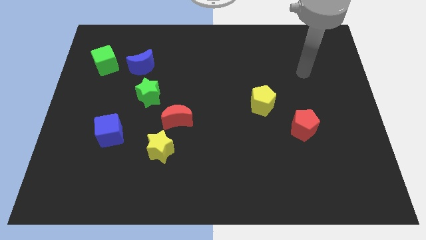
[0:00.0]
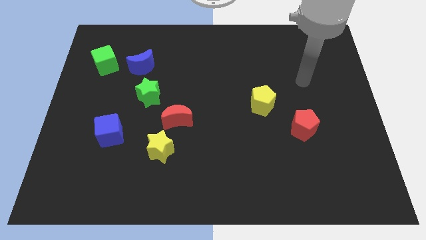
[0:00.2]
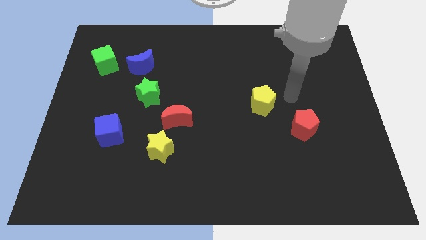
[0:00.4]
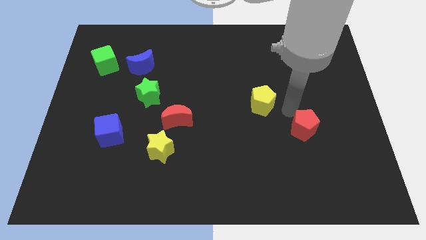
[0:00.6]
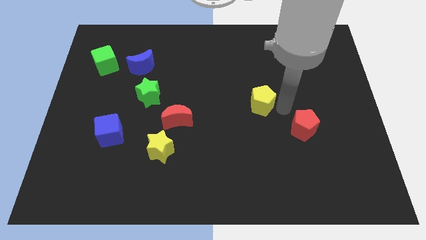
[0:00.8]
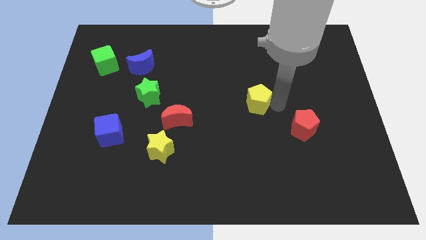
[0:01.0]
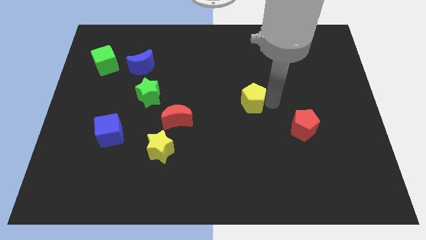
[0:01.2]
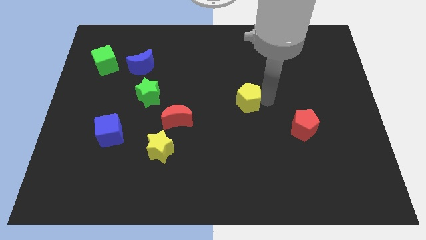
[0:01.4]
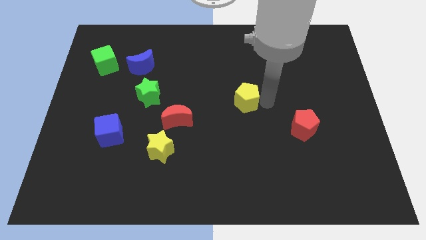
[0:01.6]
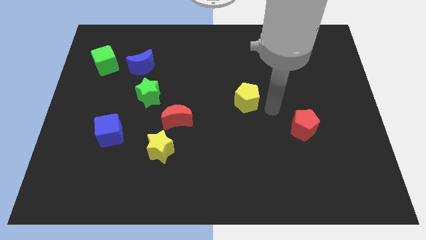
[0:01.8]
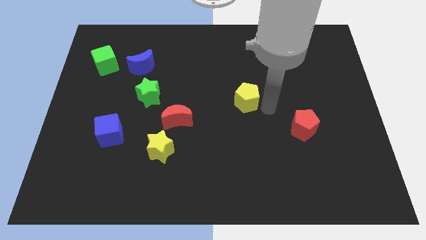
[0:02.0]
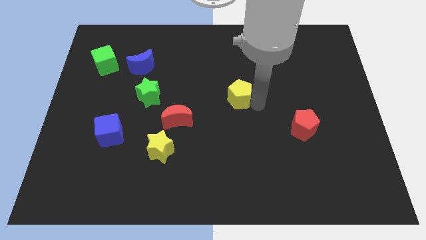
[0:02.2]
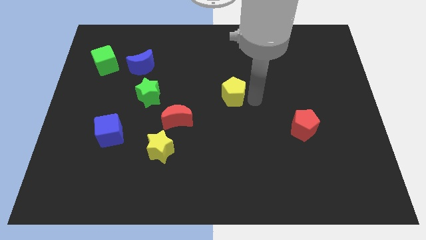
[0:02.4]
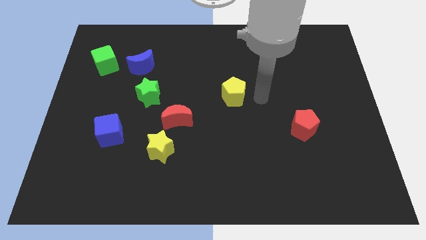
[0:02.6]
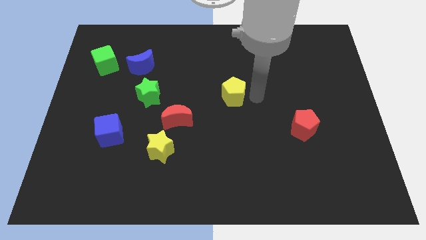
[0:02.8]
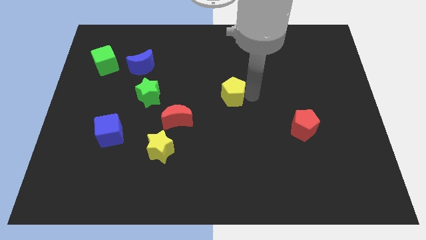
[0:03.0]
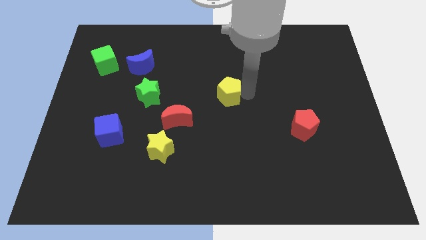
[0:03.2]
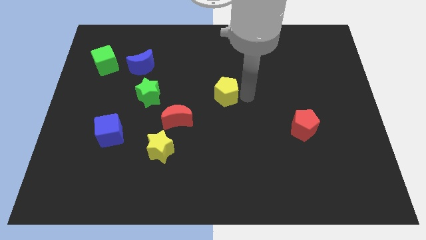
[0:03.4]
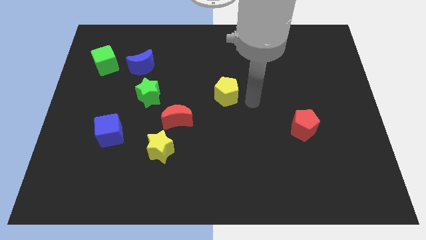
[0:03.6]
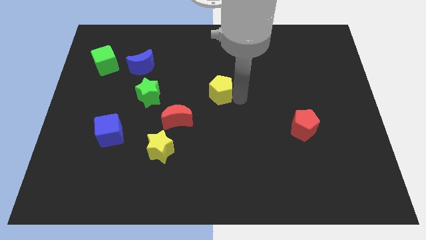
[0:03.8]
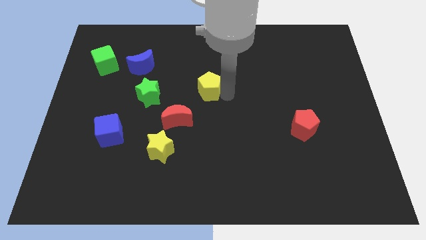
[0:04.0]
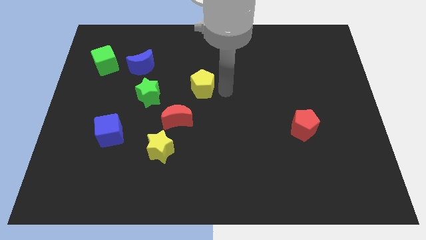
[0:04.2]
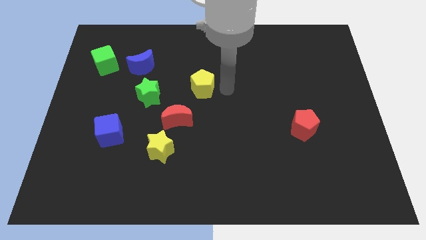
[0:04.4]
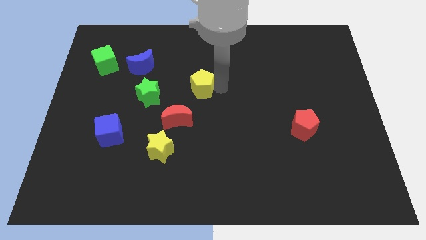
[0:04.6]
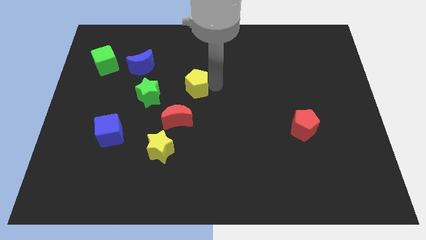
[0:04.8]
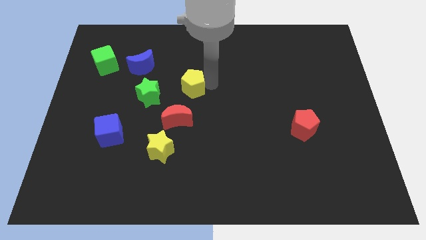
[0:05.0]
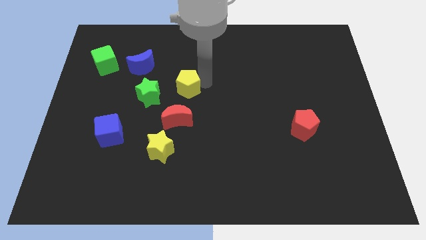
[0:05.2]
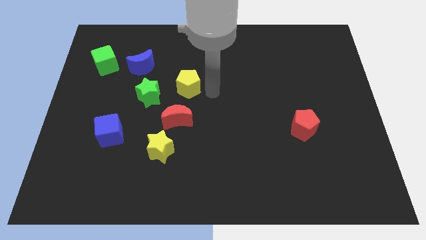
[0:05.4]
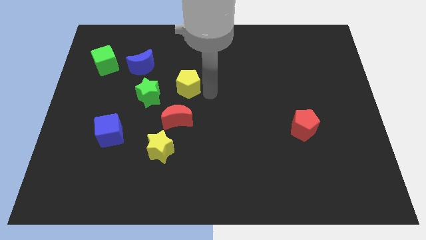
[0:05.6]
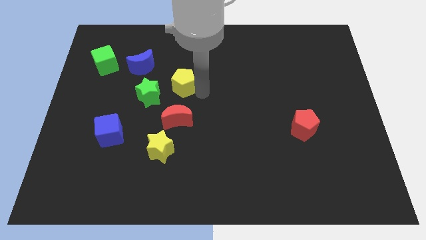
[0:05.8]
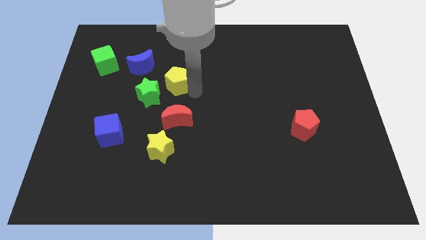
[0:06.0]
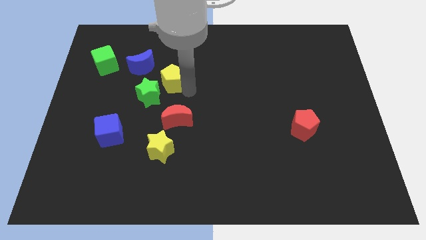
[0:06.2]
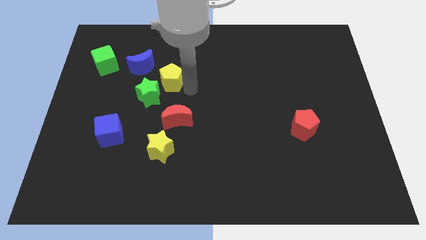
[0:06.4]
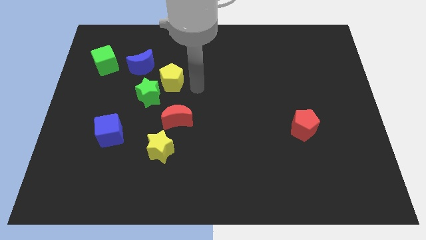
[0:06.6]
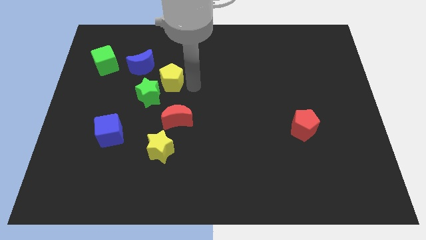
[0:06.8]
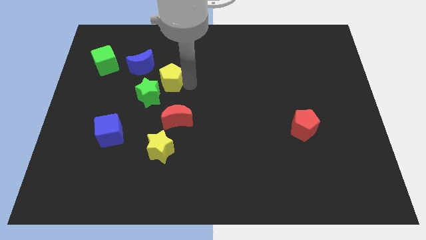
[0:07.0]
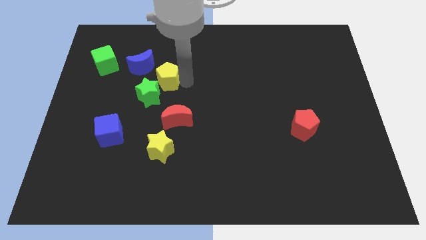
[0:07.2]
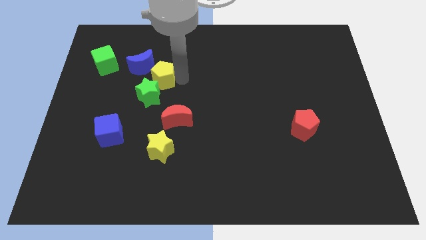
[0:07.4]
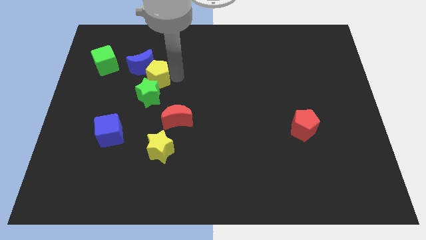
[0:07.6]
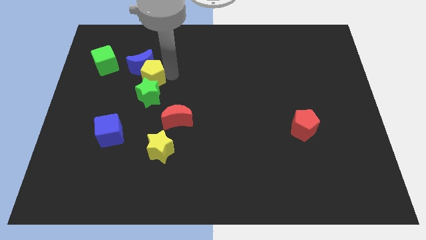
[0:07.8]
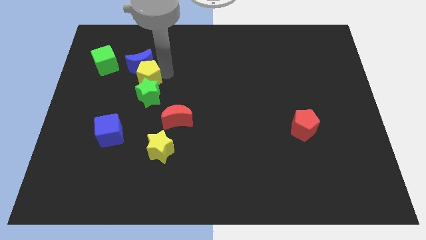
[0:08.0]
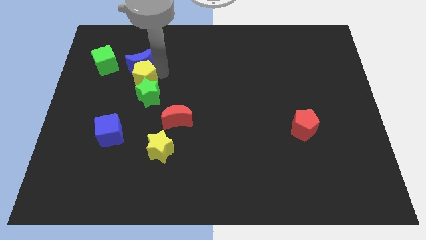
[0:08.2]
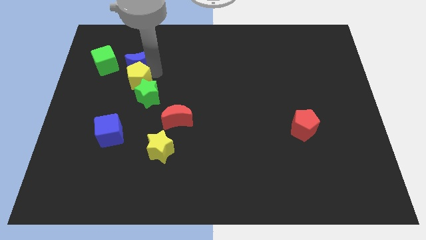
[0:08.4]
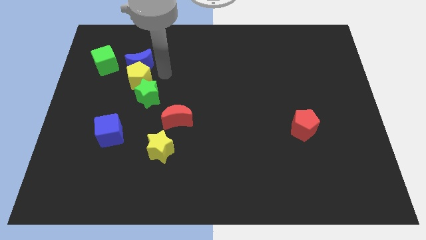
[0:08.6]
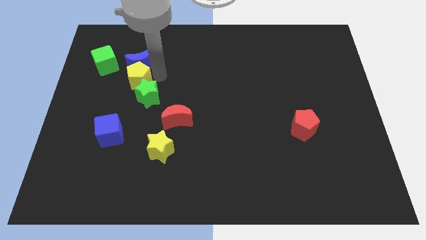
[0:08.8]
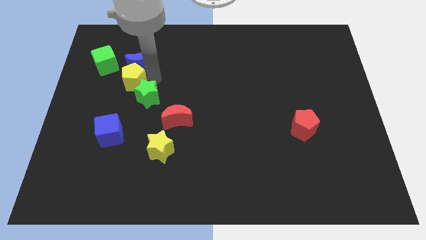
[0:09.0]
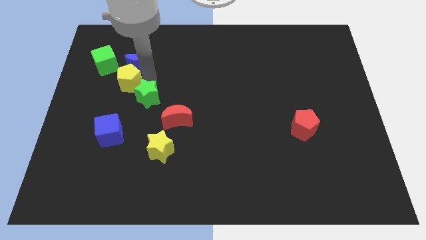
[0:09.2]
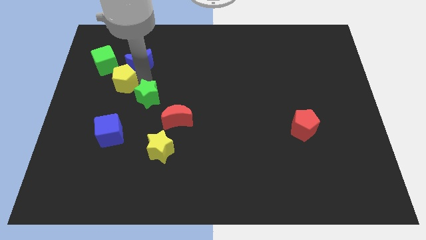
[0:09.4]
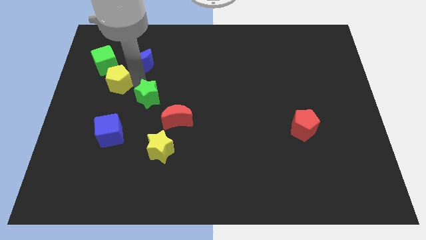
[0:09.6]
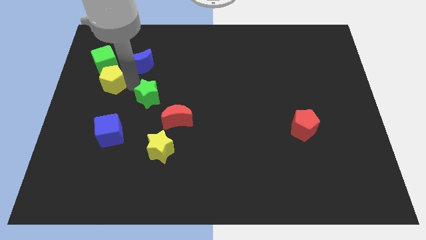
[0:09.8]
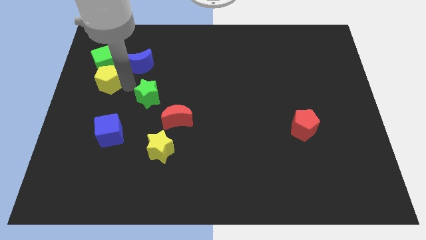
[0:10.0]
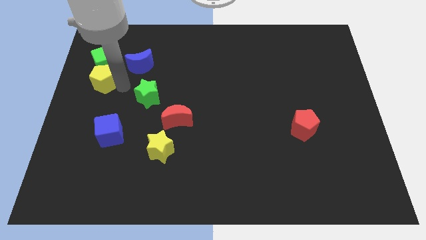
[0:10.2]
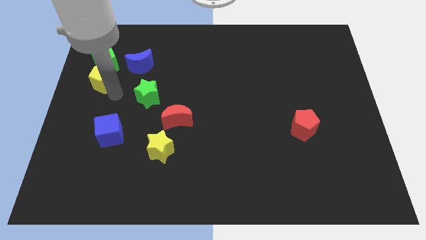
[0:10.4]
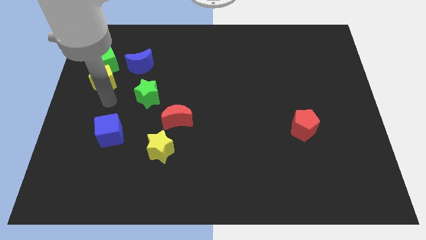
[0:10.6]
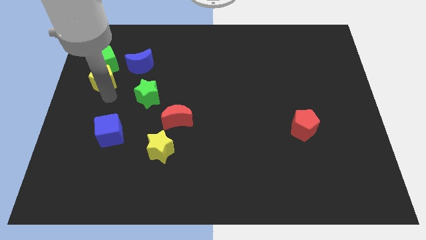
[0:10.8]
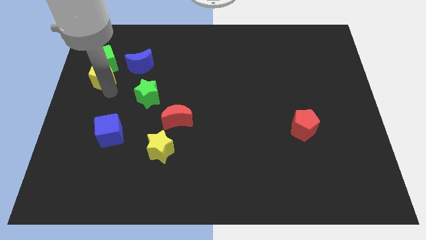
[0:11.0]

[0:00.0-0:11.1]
put the yellow pentagon left of the blue moon

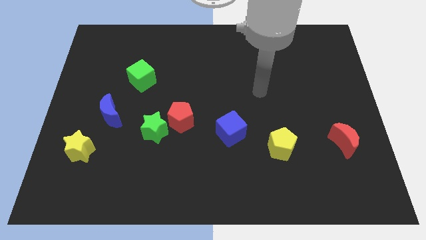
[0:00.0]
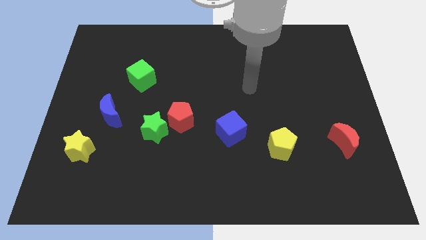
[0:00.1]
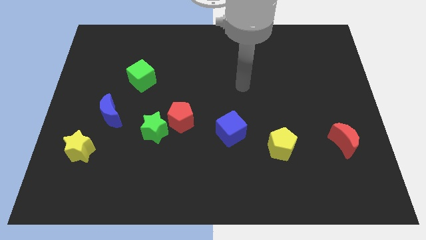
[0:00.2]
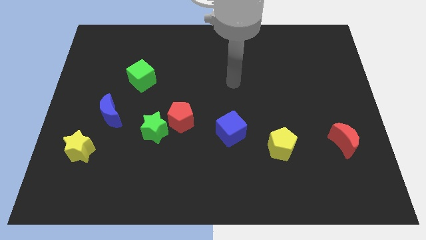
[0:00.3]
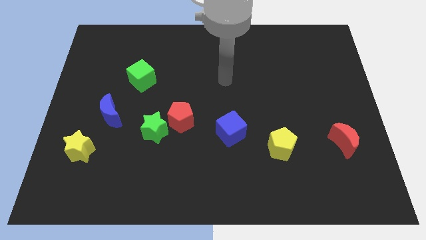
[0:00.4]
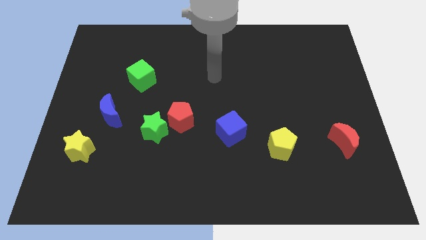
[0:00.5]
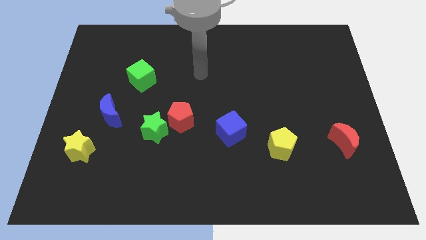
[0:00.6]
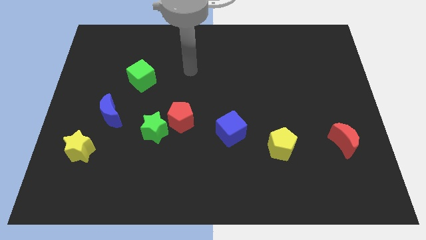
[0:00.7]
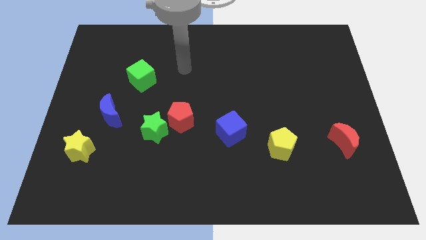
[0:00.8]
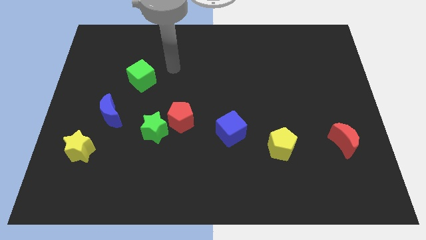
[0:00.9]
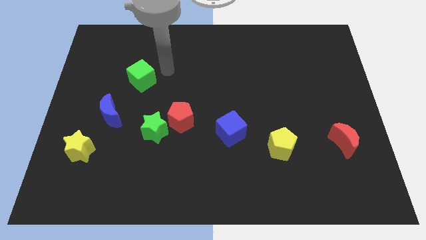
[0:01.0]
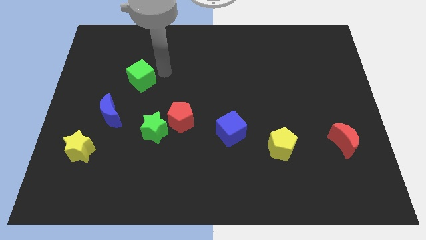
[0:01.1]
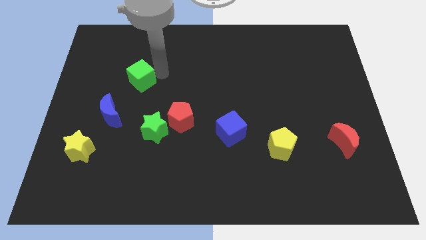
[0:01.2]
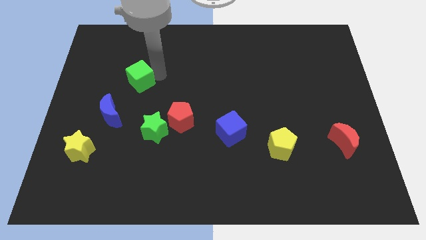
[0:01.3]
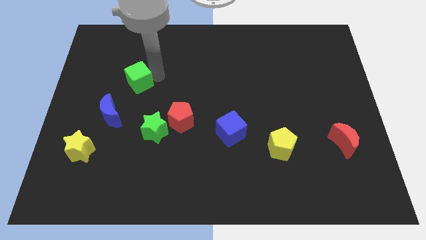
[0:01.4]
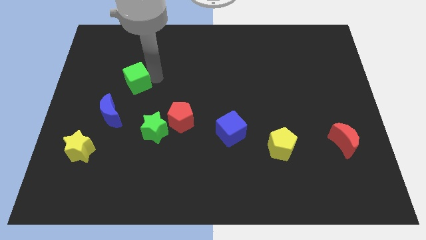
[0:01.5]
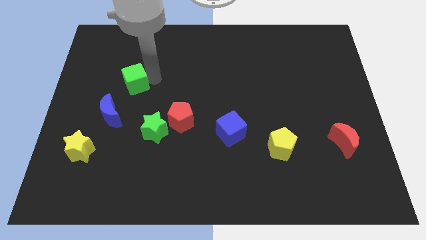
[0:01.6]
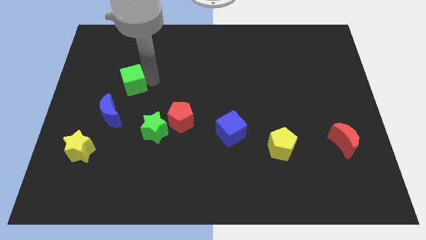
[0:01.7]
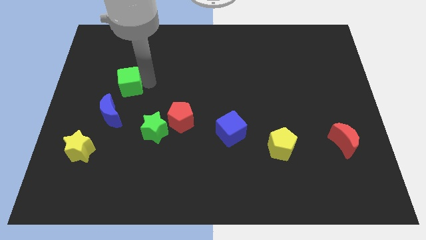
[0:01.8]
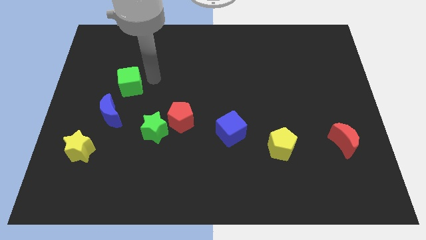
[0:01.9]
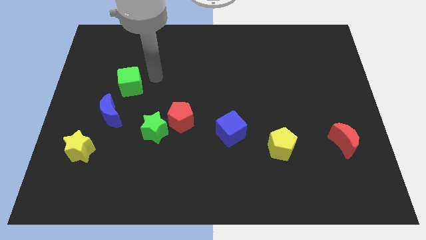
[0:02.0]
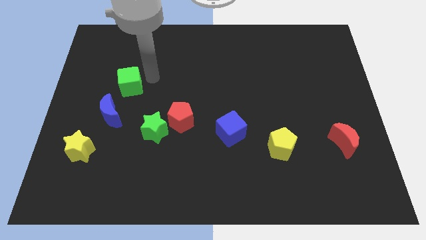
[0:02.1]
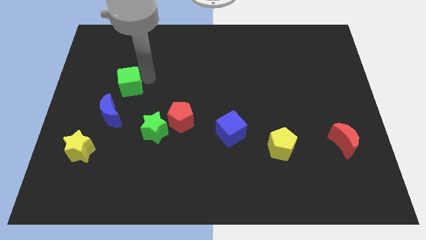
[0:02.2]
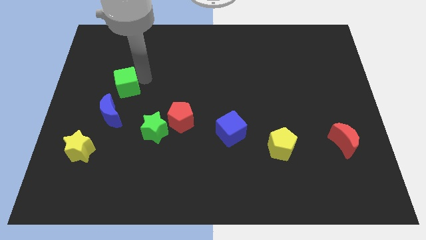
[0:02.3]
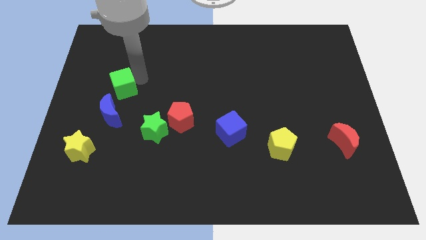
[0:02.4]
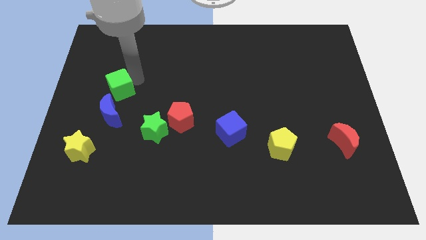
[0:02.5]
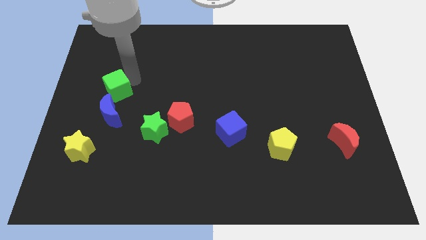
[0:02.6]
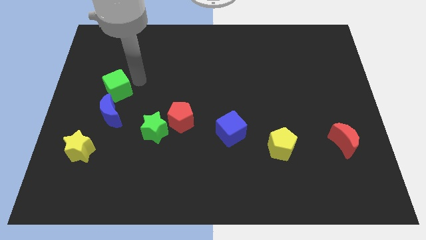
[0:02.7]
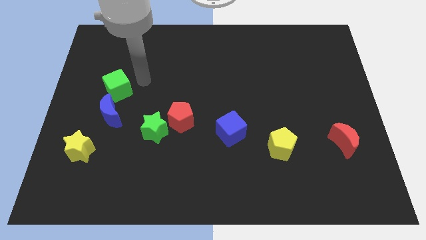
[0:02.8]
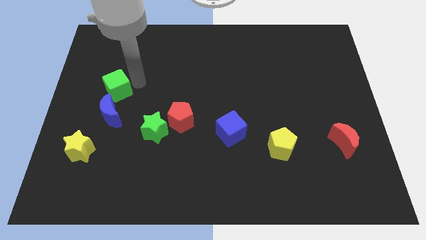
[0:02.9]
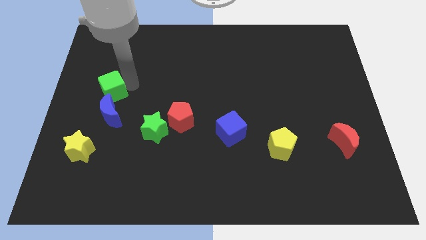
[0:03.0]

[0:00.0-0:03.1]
put the green cube to the top left of the blue moon
